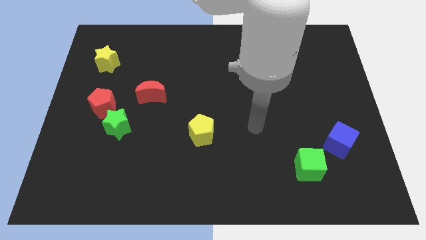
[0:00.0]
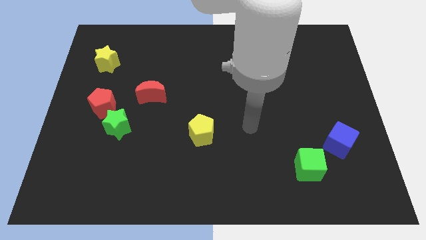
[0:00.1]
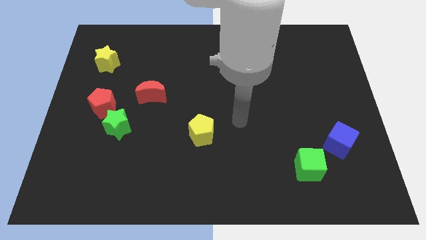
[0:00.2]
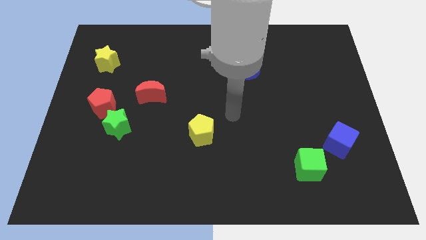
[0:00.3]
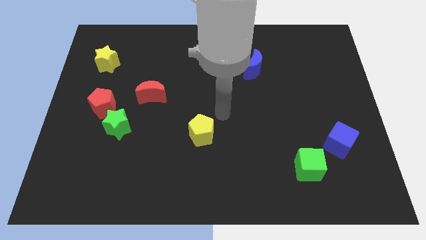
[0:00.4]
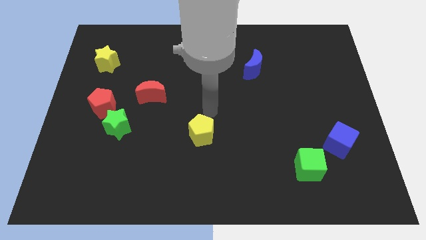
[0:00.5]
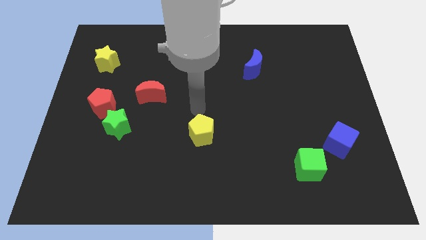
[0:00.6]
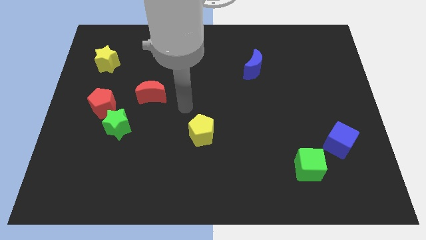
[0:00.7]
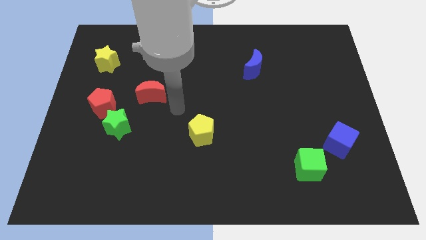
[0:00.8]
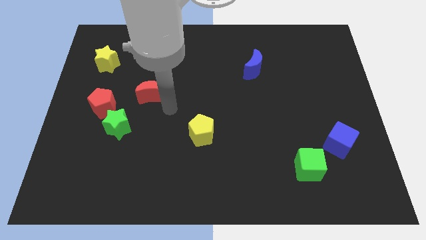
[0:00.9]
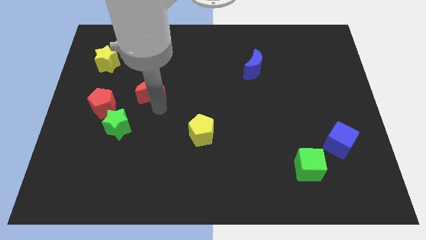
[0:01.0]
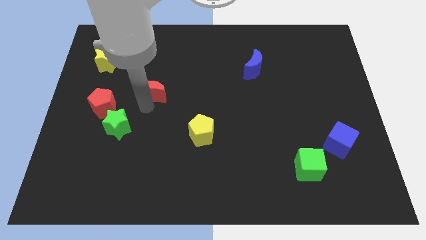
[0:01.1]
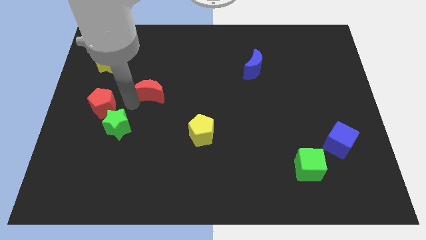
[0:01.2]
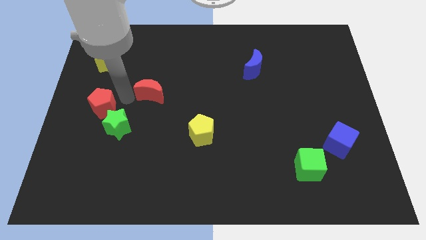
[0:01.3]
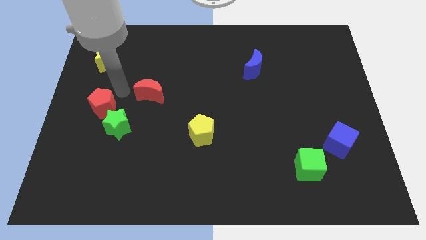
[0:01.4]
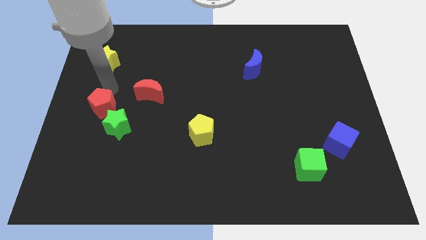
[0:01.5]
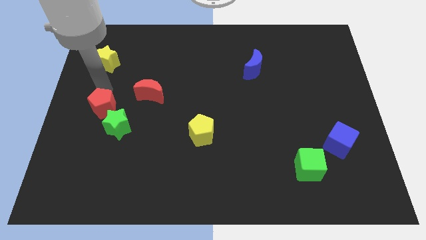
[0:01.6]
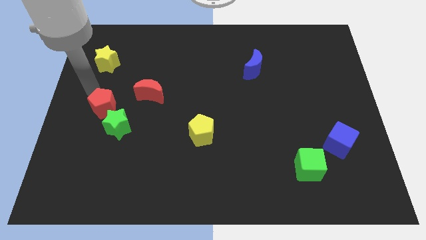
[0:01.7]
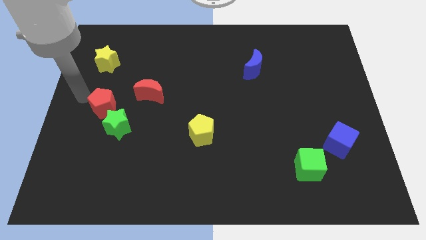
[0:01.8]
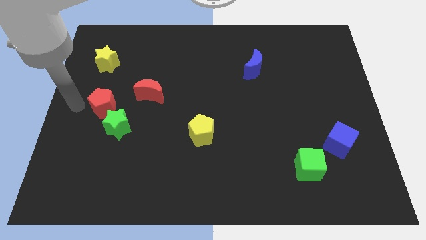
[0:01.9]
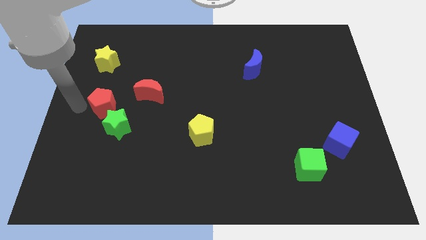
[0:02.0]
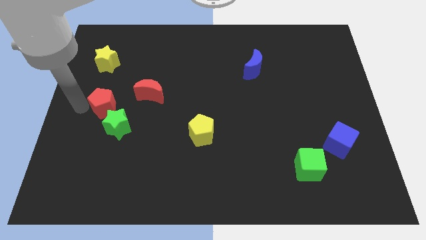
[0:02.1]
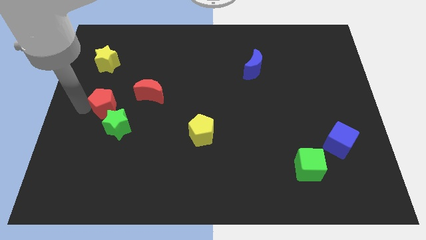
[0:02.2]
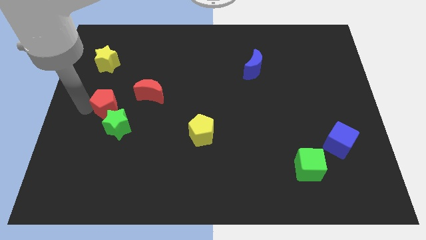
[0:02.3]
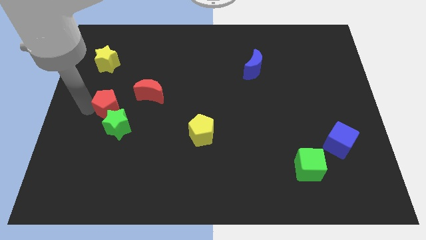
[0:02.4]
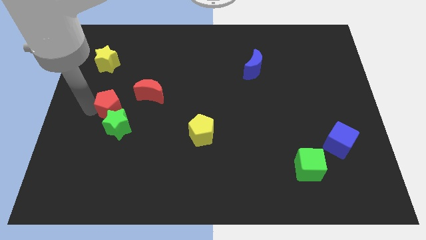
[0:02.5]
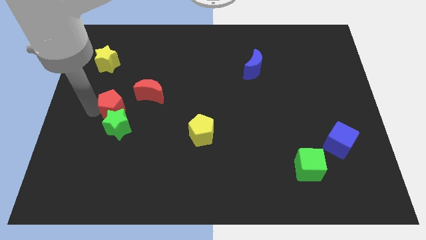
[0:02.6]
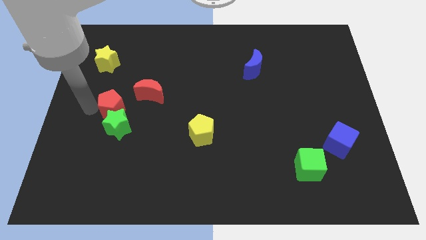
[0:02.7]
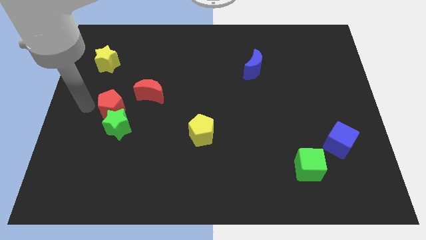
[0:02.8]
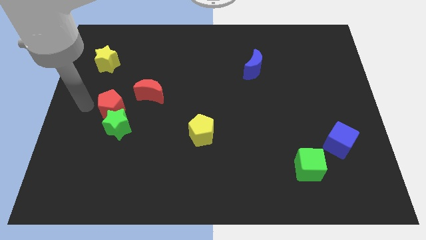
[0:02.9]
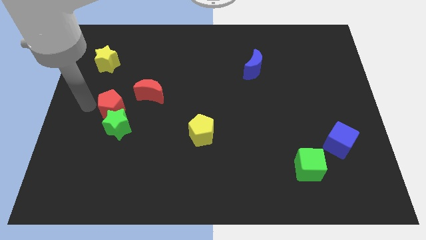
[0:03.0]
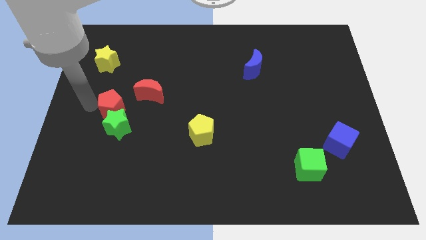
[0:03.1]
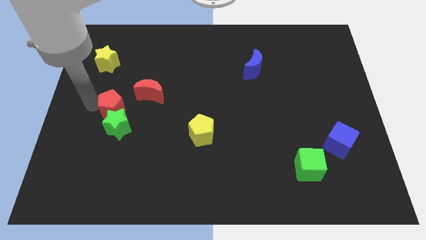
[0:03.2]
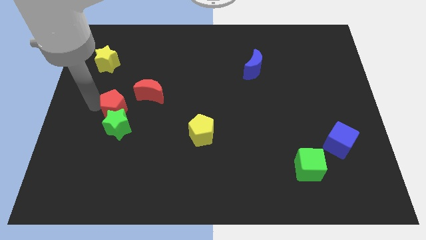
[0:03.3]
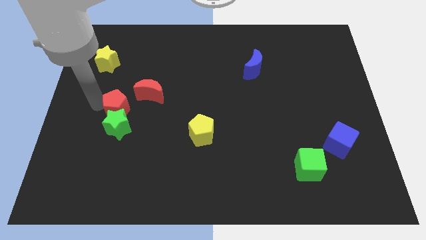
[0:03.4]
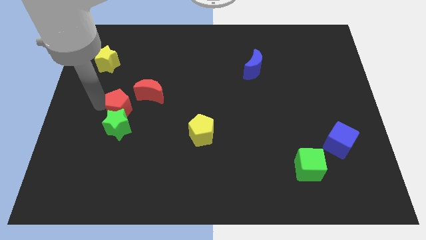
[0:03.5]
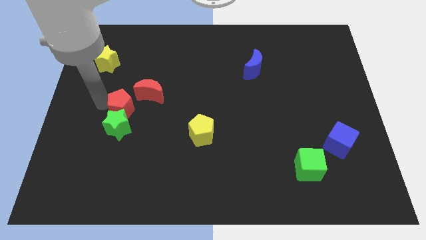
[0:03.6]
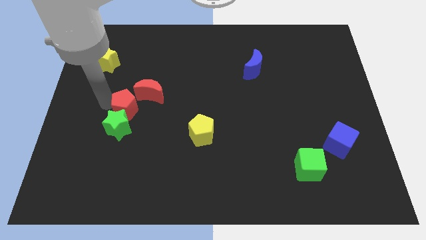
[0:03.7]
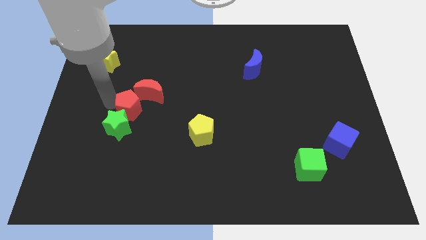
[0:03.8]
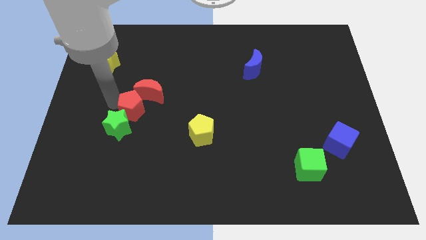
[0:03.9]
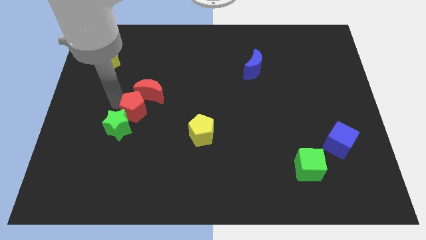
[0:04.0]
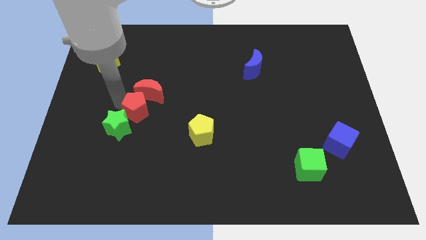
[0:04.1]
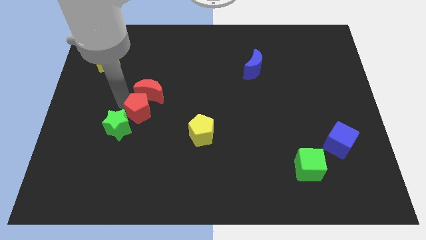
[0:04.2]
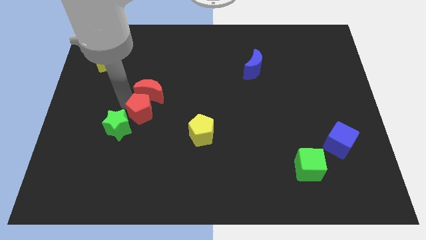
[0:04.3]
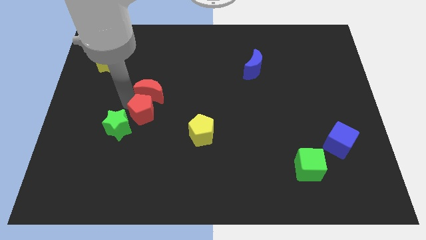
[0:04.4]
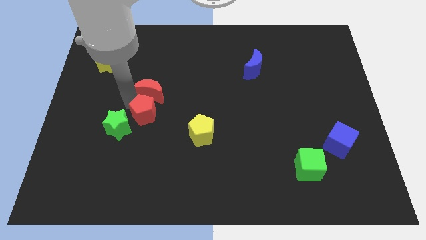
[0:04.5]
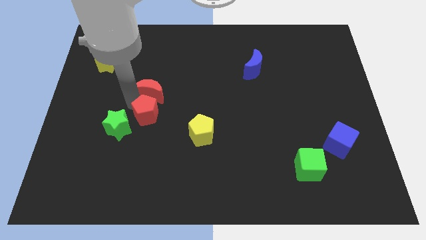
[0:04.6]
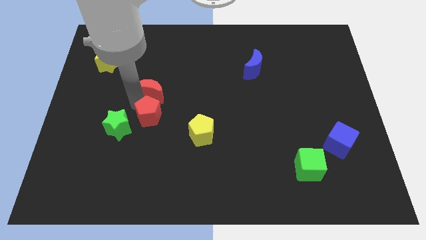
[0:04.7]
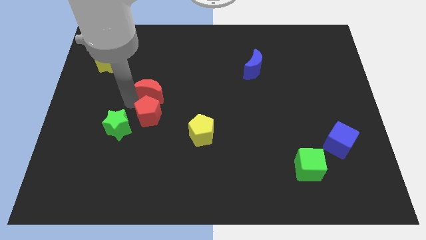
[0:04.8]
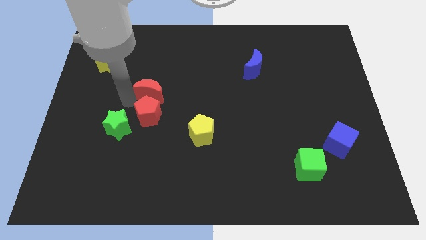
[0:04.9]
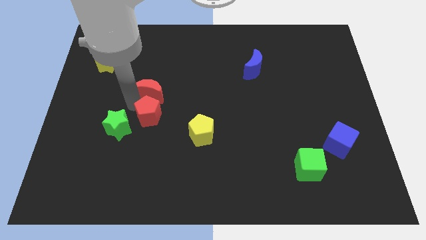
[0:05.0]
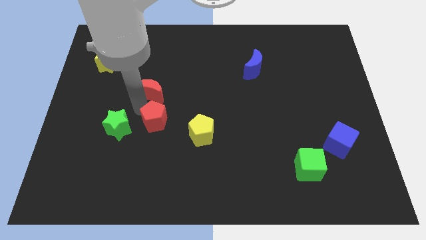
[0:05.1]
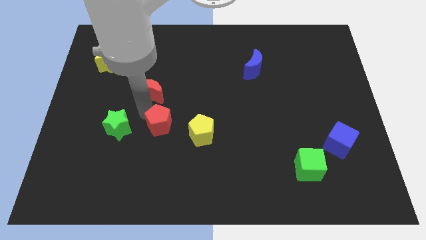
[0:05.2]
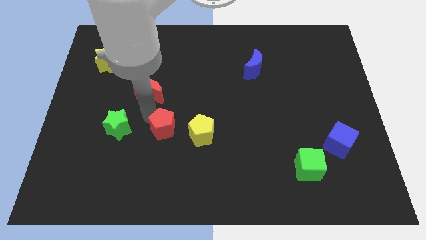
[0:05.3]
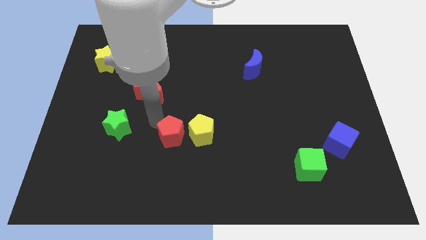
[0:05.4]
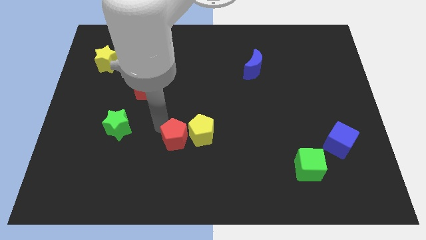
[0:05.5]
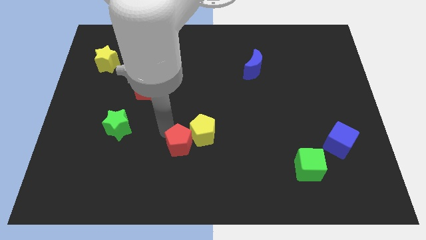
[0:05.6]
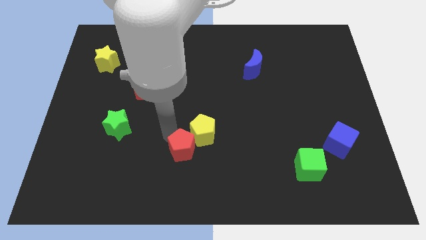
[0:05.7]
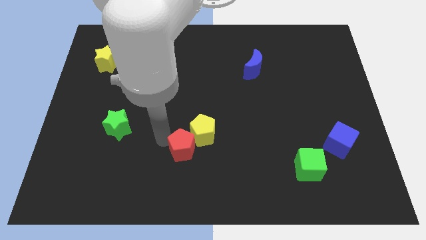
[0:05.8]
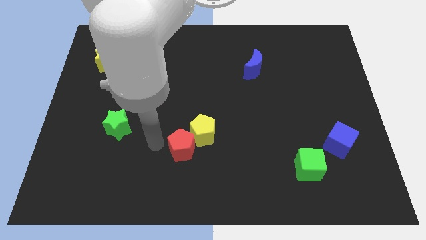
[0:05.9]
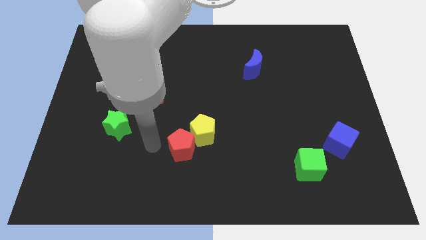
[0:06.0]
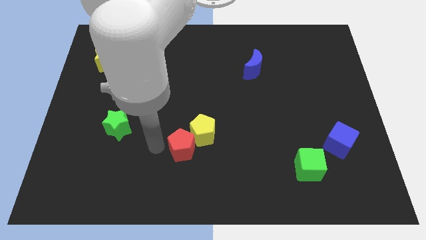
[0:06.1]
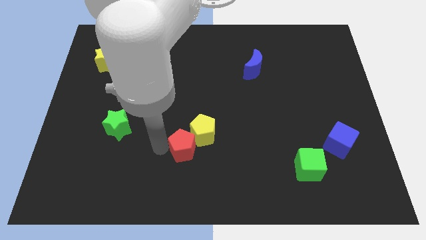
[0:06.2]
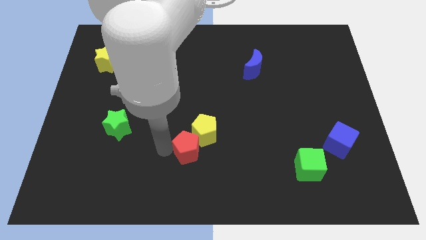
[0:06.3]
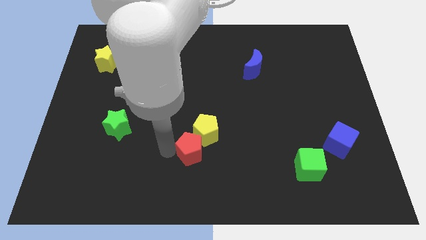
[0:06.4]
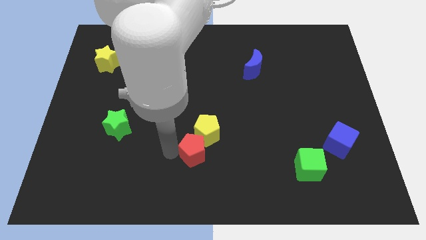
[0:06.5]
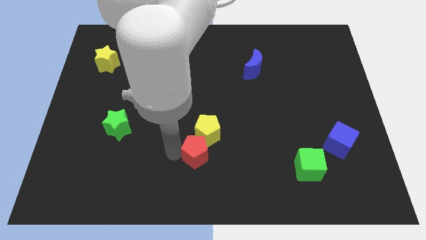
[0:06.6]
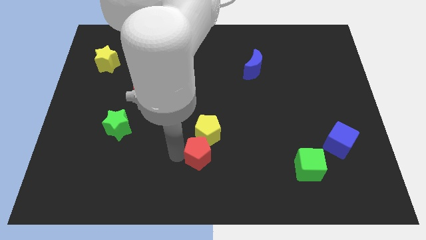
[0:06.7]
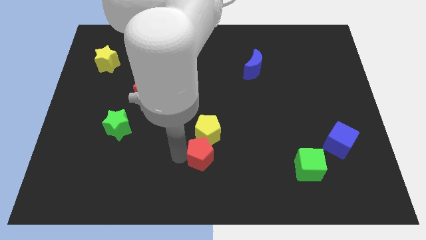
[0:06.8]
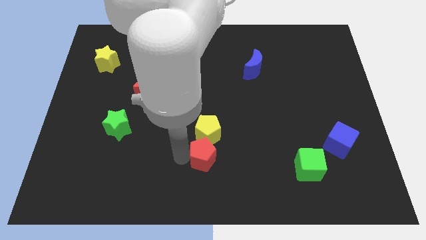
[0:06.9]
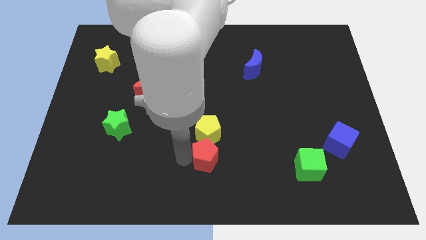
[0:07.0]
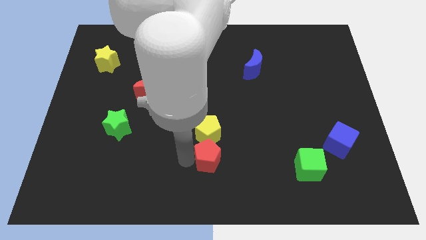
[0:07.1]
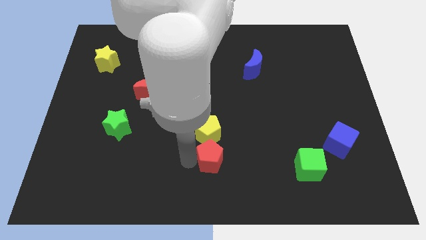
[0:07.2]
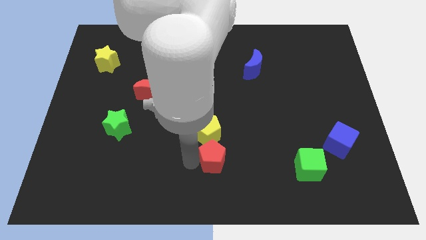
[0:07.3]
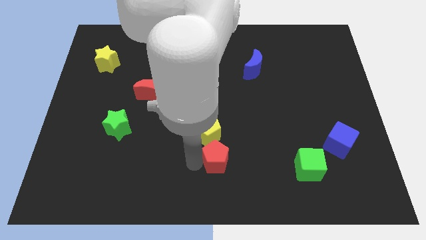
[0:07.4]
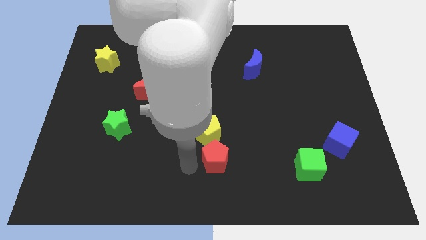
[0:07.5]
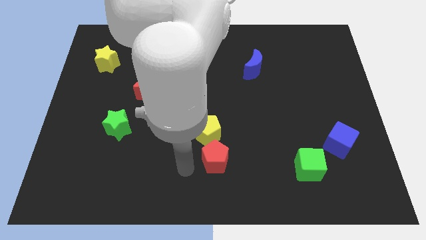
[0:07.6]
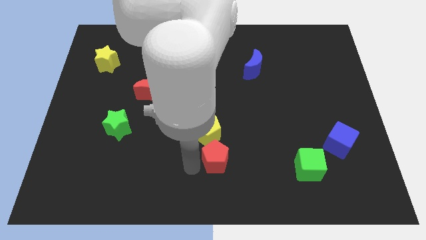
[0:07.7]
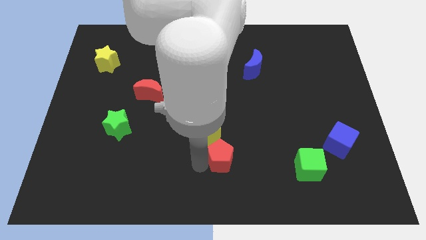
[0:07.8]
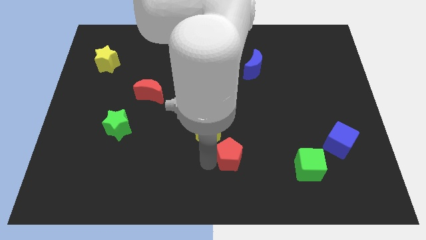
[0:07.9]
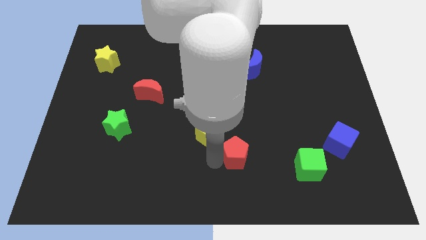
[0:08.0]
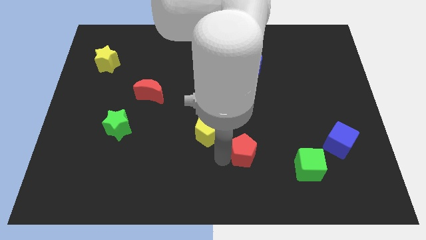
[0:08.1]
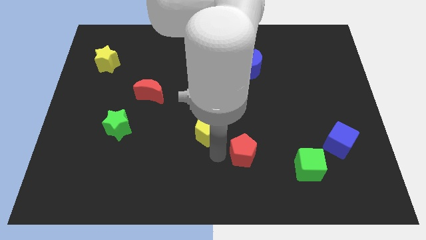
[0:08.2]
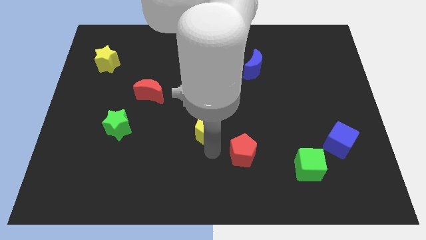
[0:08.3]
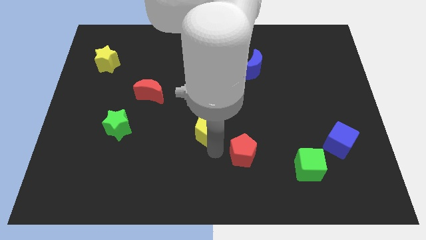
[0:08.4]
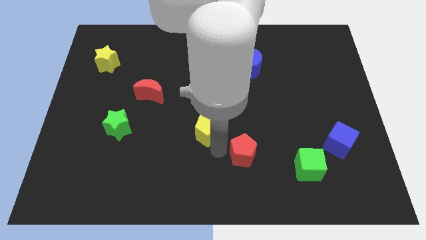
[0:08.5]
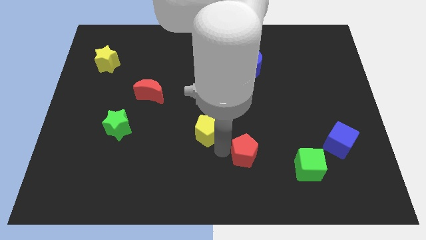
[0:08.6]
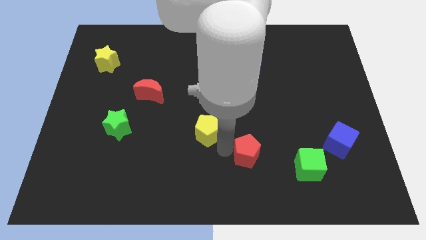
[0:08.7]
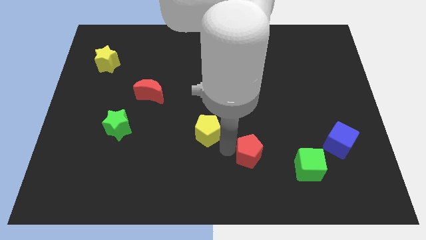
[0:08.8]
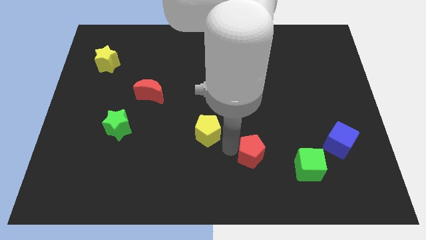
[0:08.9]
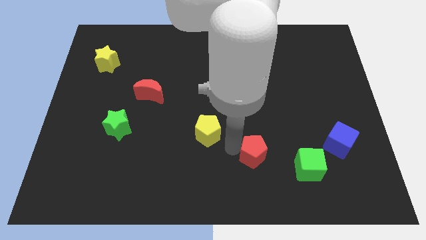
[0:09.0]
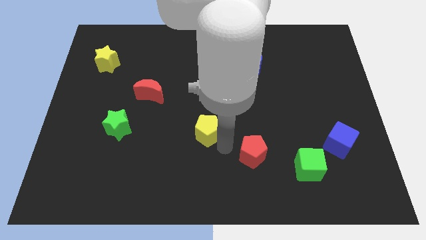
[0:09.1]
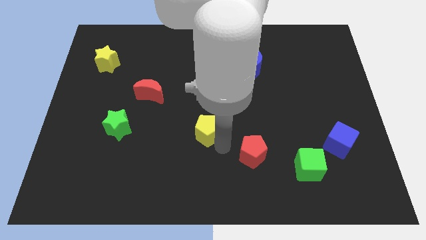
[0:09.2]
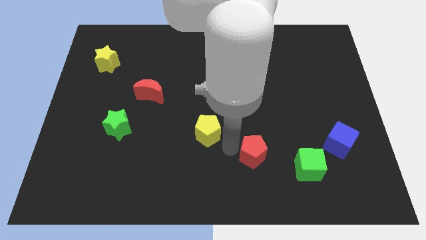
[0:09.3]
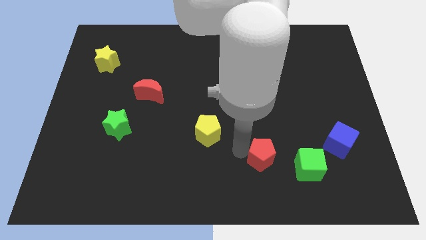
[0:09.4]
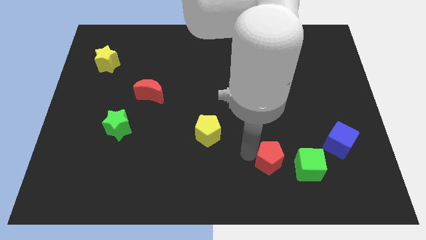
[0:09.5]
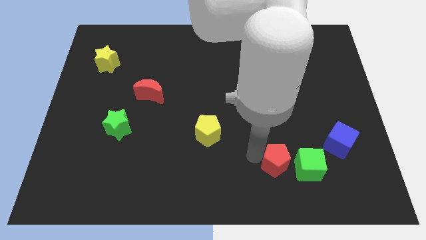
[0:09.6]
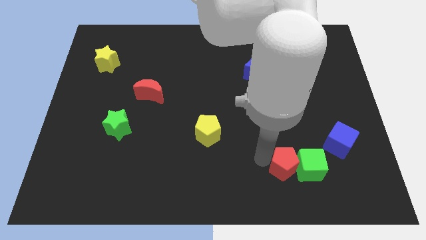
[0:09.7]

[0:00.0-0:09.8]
push the red pentagon close to the green cube
